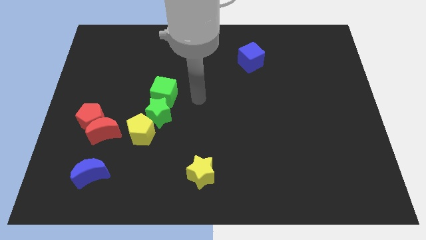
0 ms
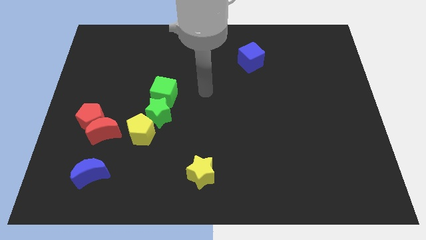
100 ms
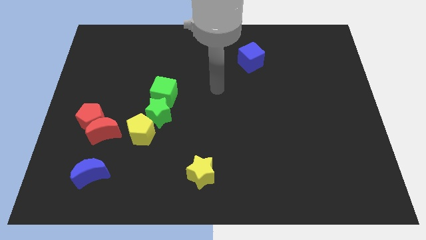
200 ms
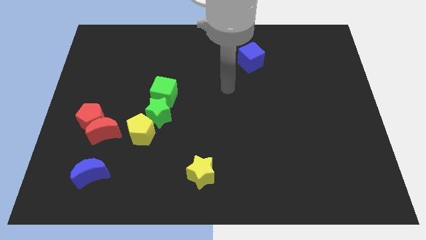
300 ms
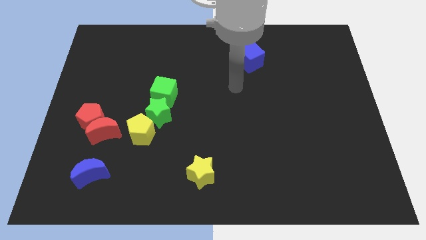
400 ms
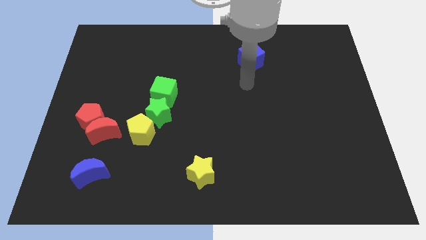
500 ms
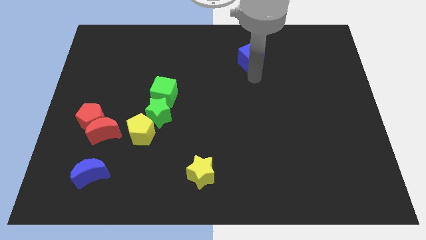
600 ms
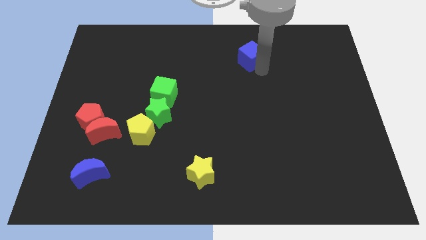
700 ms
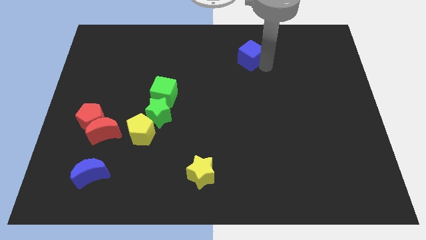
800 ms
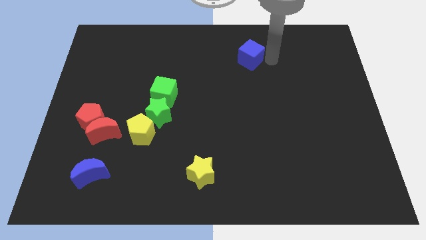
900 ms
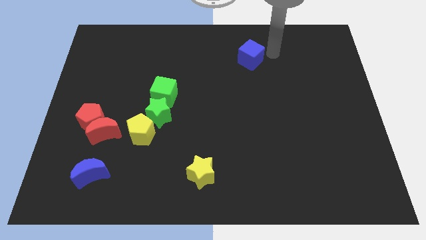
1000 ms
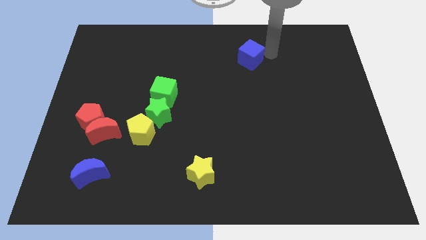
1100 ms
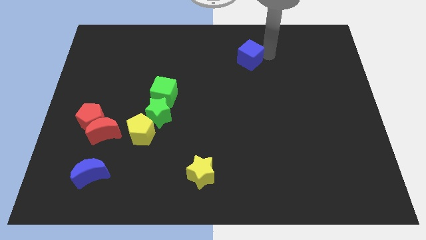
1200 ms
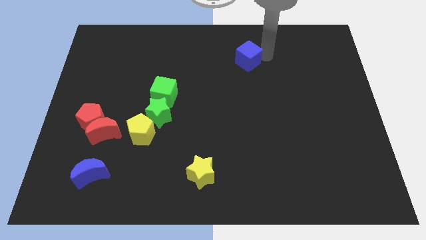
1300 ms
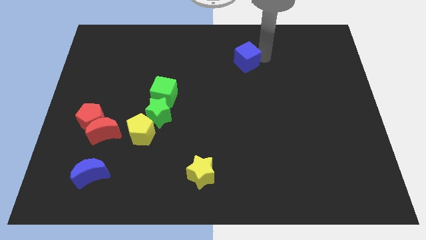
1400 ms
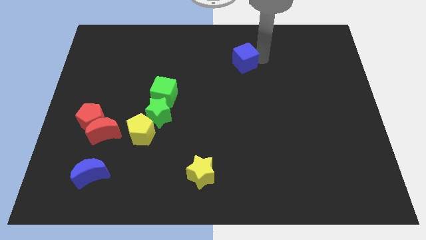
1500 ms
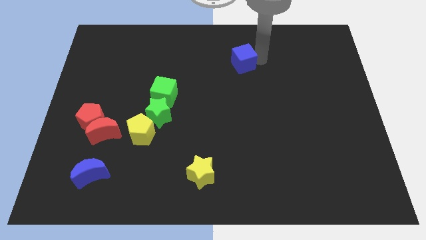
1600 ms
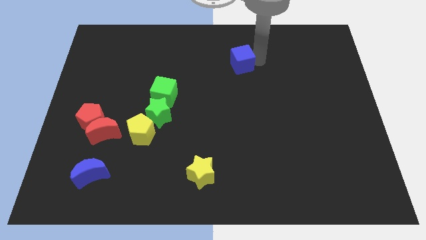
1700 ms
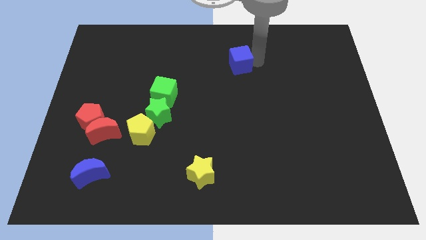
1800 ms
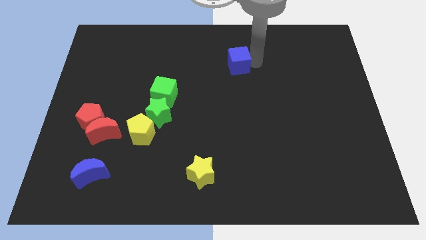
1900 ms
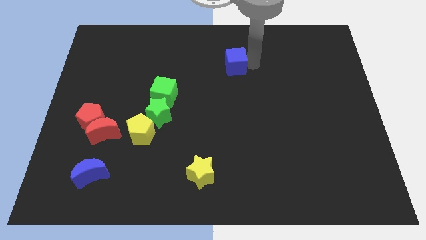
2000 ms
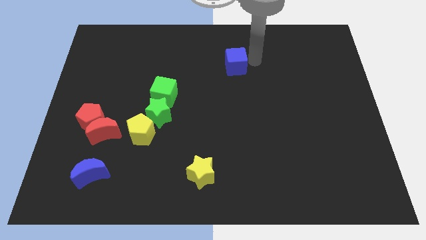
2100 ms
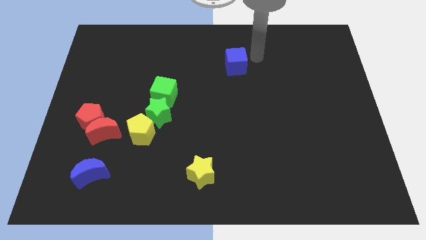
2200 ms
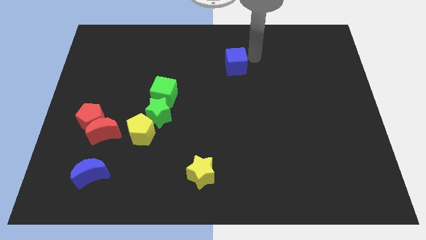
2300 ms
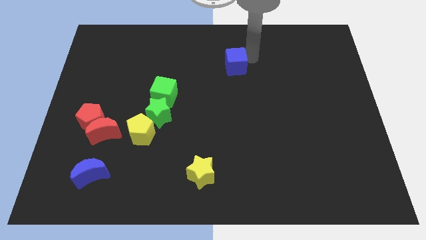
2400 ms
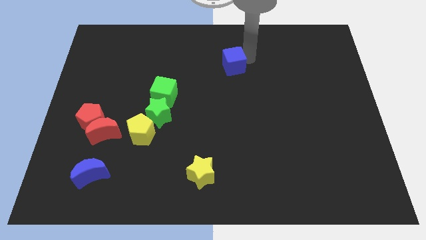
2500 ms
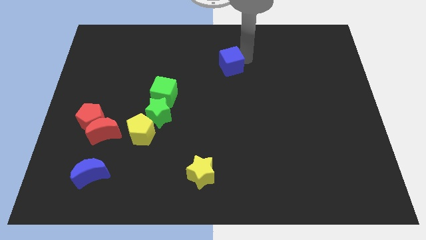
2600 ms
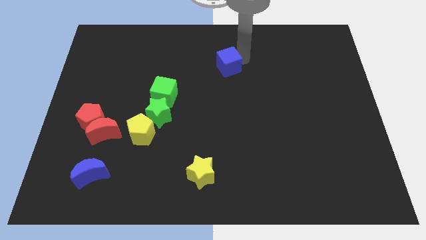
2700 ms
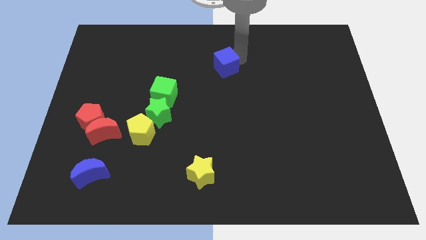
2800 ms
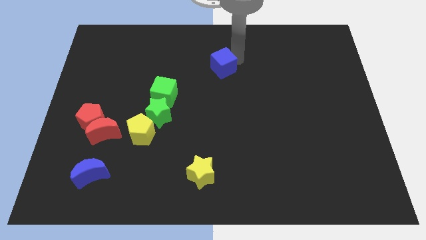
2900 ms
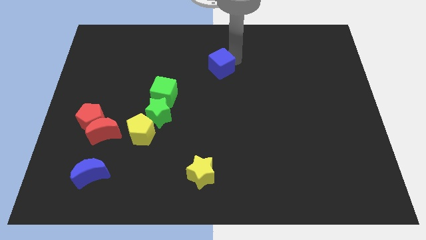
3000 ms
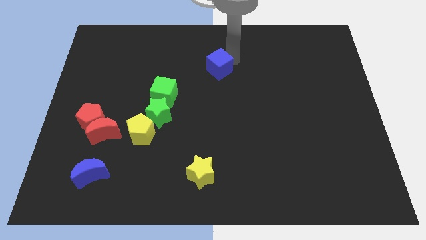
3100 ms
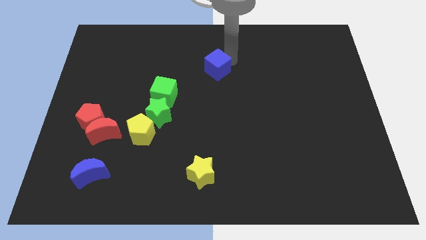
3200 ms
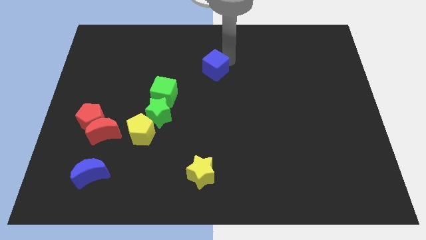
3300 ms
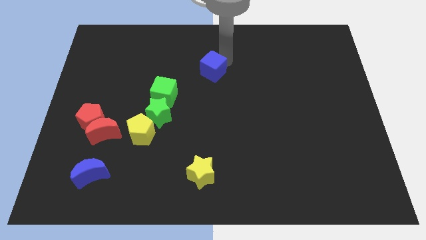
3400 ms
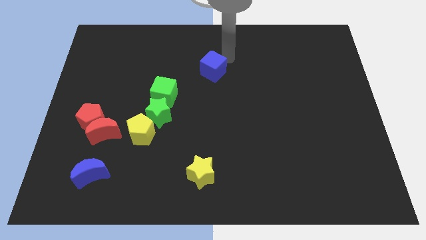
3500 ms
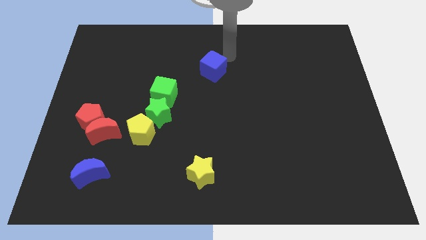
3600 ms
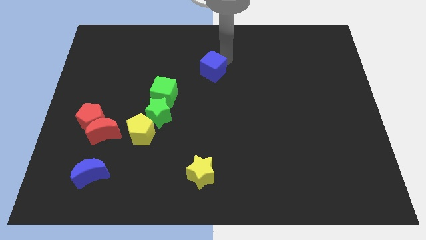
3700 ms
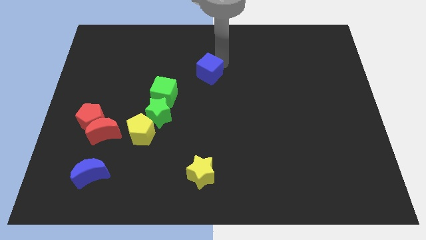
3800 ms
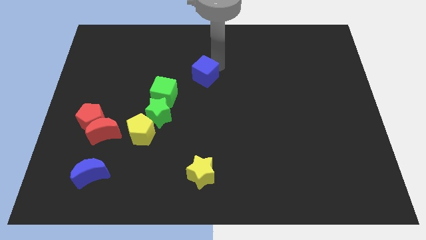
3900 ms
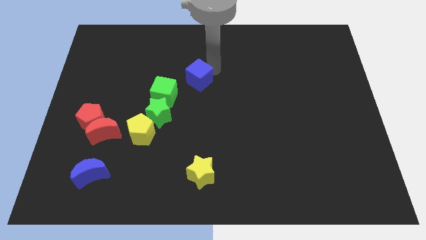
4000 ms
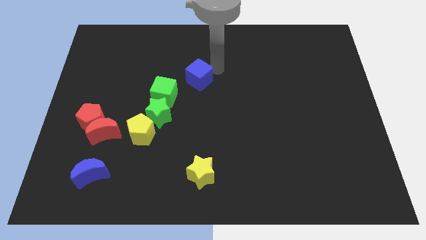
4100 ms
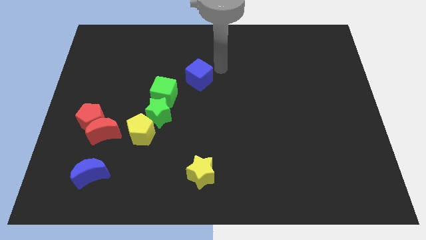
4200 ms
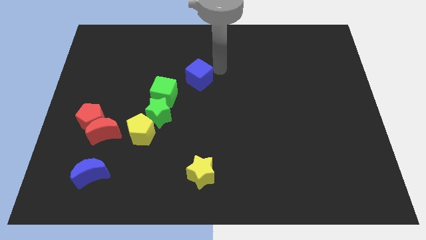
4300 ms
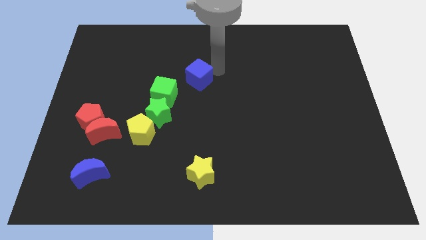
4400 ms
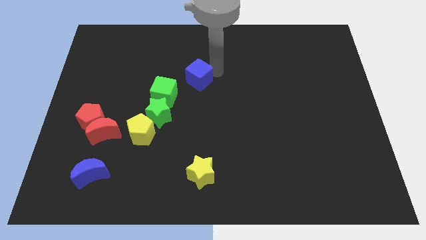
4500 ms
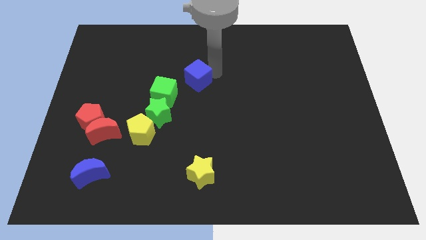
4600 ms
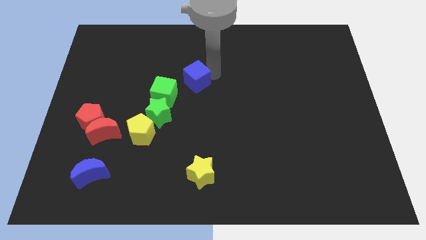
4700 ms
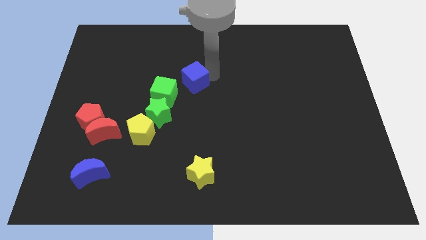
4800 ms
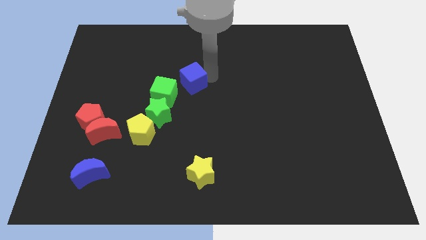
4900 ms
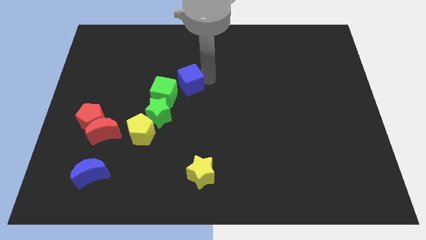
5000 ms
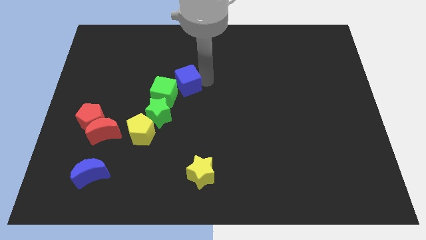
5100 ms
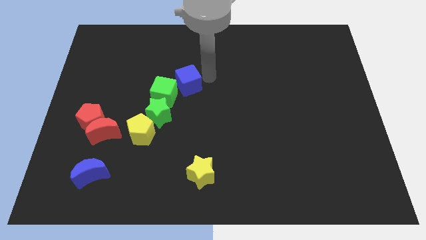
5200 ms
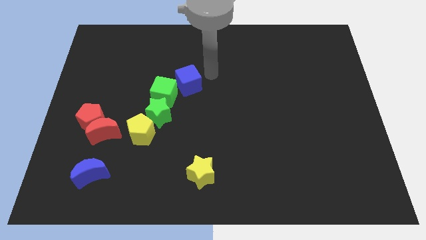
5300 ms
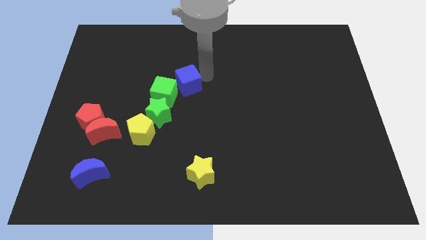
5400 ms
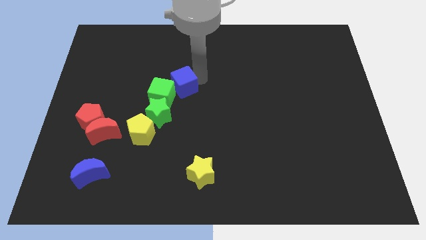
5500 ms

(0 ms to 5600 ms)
push the blue cube next to the green cube

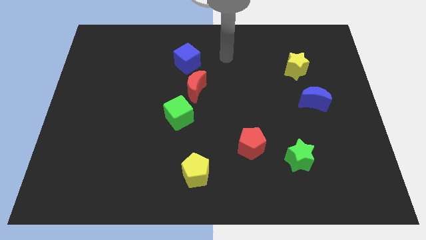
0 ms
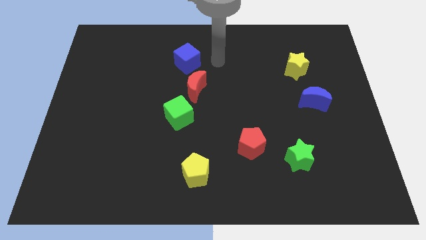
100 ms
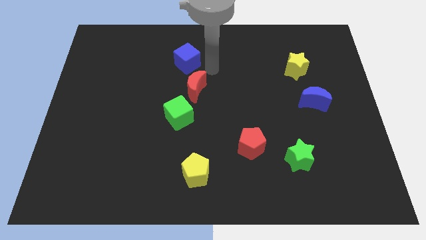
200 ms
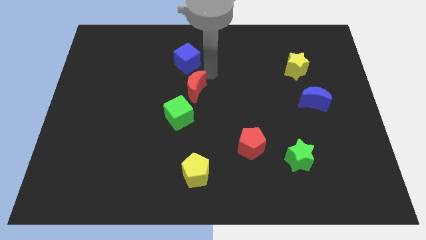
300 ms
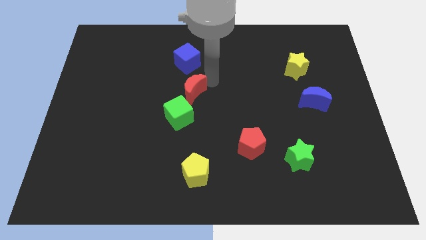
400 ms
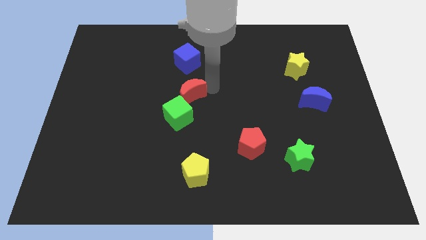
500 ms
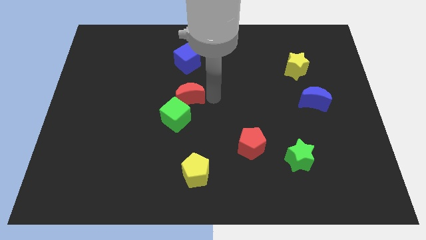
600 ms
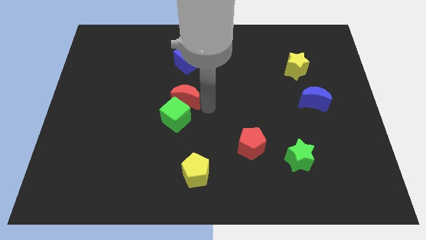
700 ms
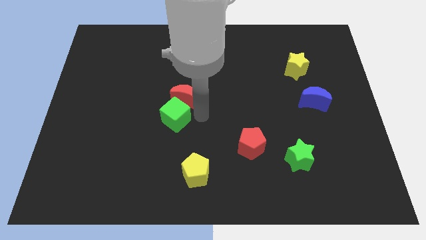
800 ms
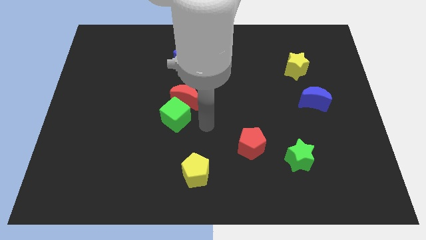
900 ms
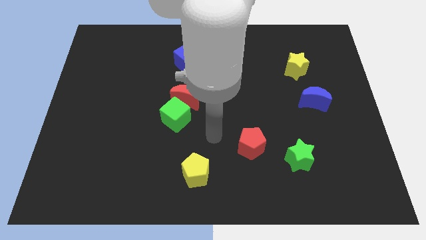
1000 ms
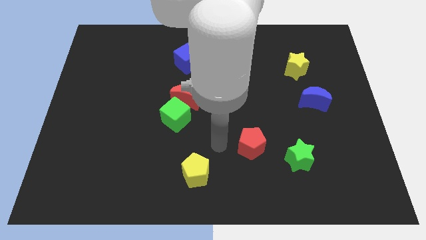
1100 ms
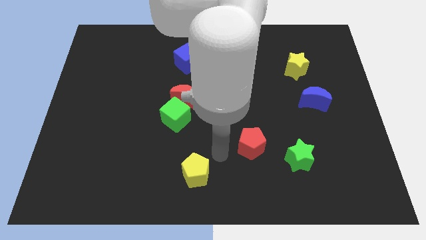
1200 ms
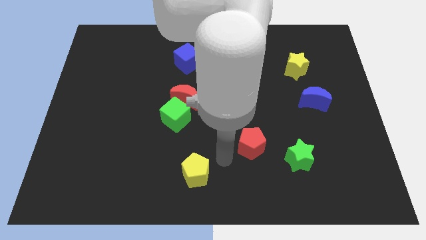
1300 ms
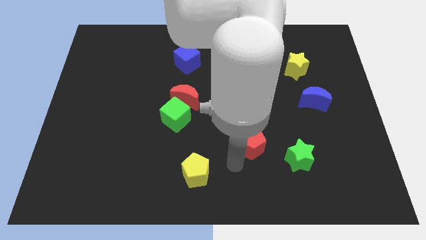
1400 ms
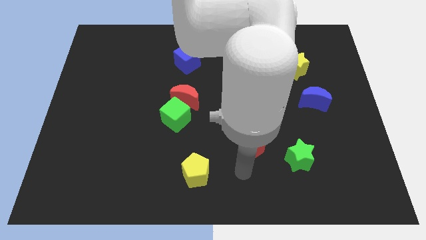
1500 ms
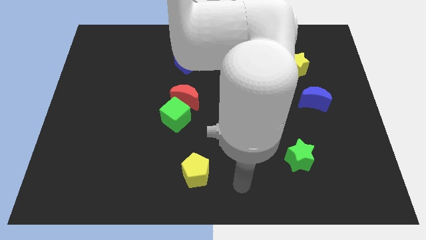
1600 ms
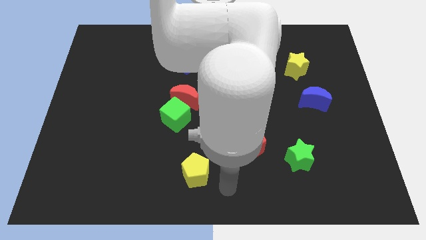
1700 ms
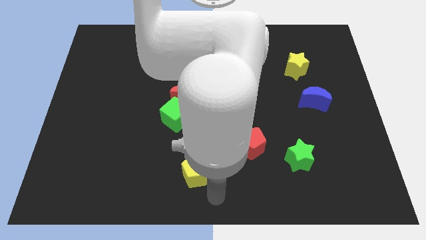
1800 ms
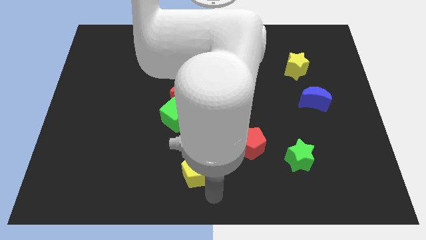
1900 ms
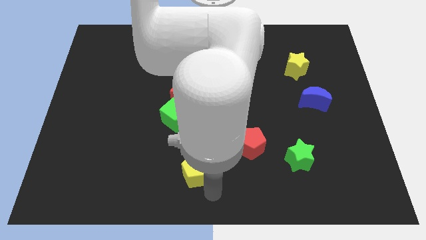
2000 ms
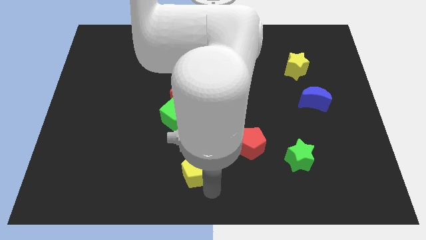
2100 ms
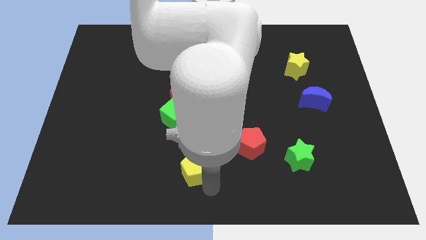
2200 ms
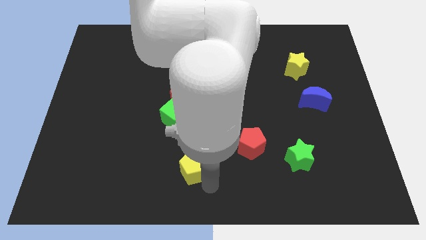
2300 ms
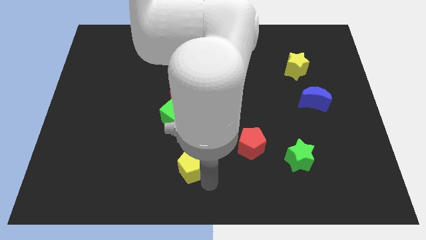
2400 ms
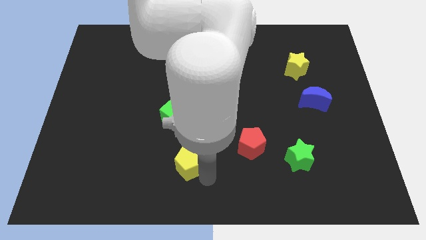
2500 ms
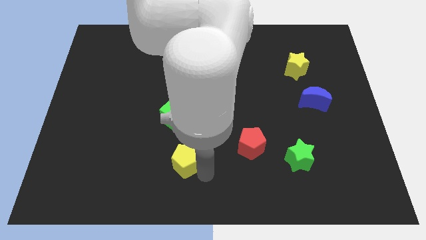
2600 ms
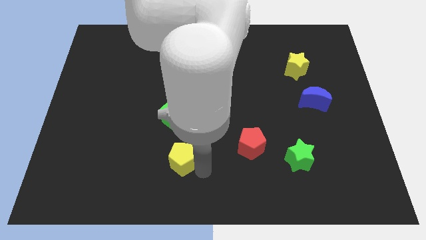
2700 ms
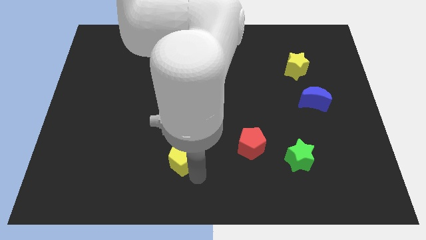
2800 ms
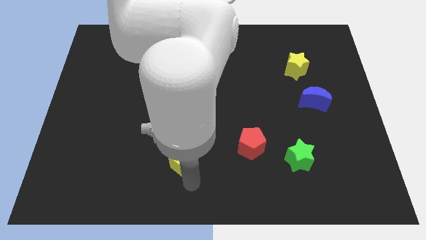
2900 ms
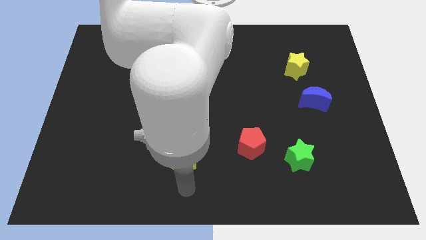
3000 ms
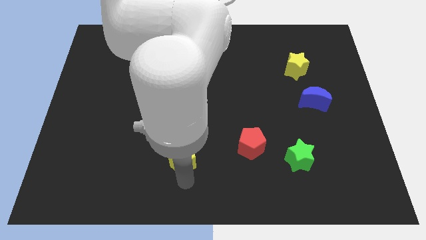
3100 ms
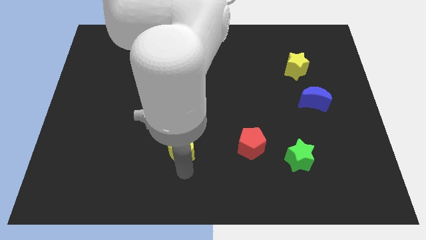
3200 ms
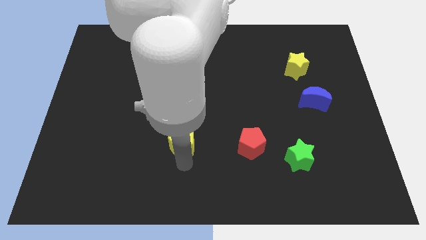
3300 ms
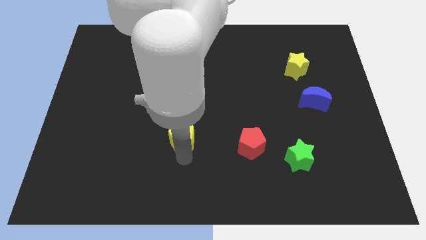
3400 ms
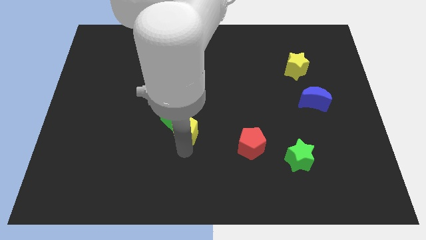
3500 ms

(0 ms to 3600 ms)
move the yellow pentagon next to the green cube
